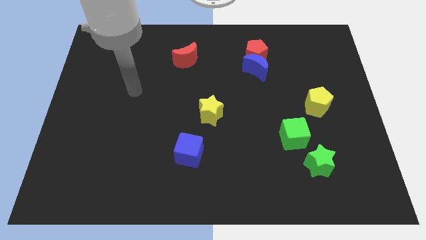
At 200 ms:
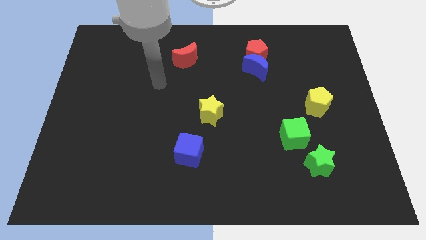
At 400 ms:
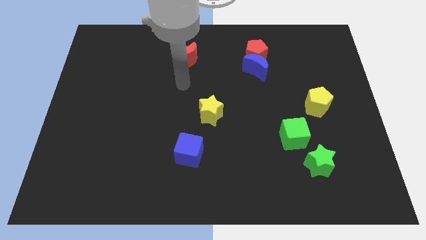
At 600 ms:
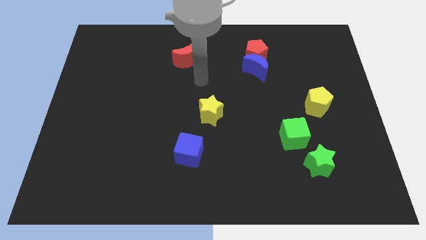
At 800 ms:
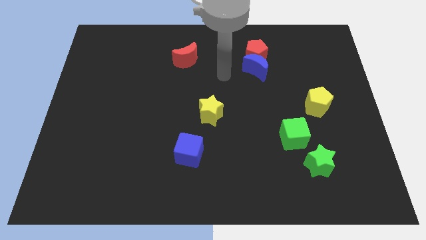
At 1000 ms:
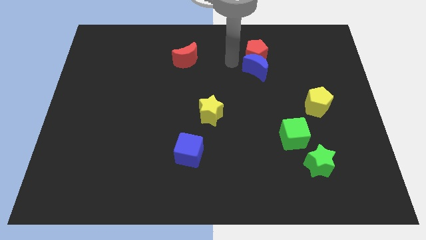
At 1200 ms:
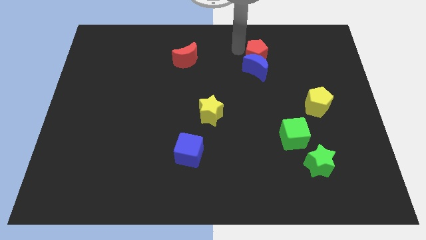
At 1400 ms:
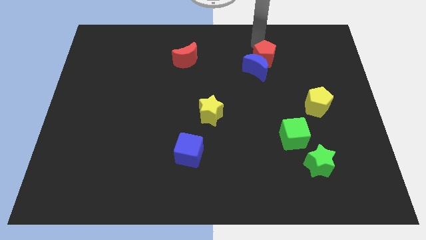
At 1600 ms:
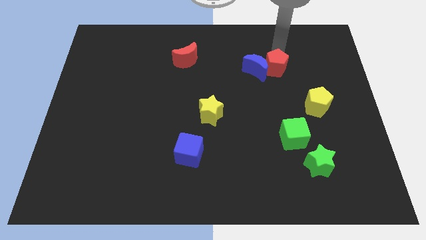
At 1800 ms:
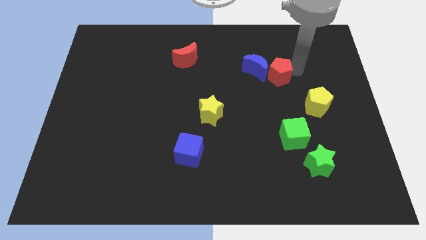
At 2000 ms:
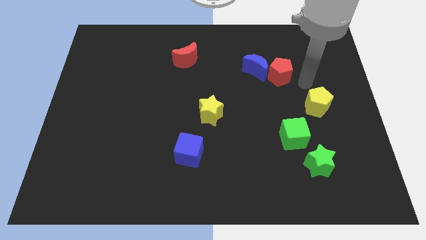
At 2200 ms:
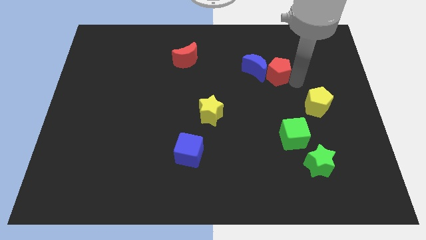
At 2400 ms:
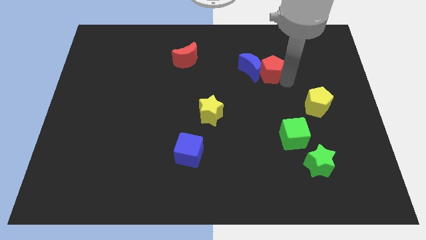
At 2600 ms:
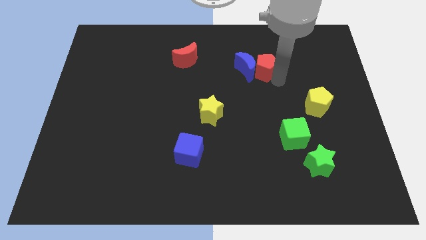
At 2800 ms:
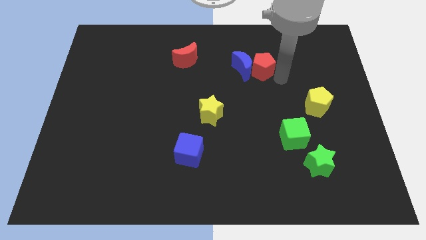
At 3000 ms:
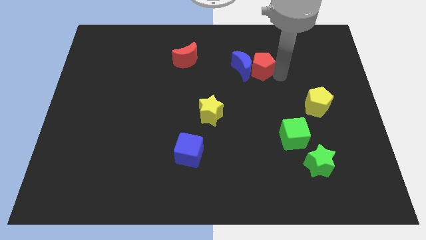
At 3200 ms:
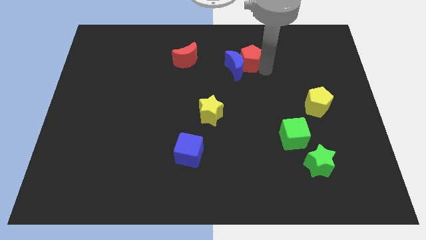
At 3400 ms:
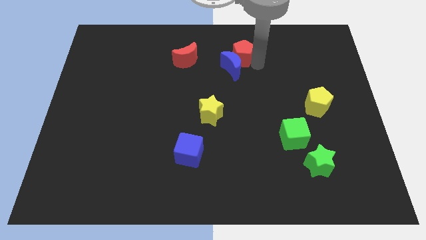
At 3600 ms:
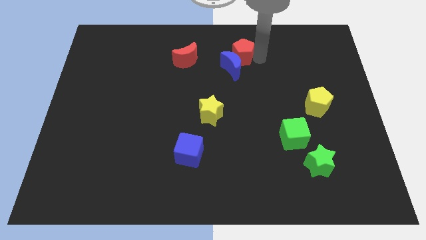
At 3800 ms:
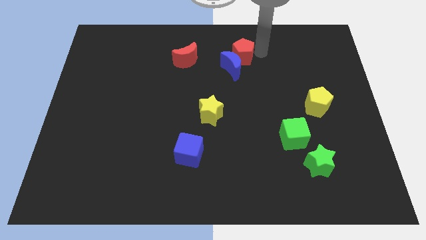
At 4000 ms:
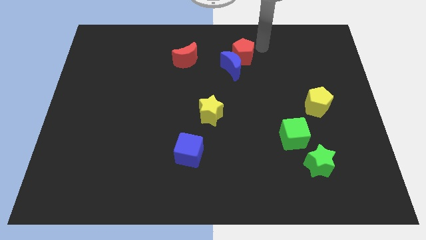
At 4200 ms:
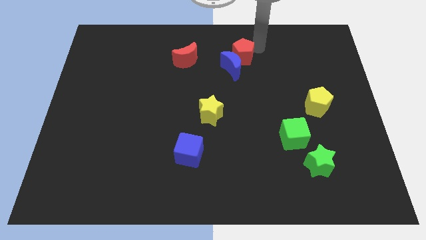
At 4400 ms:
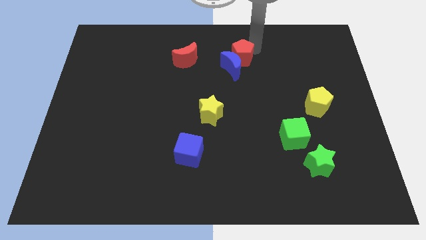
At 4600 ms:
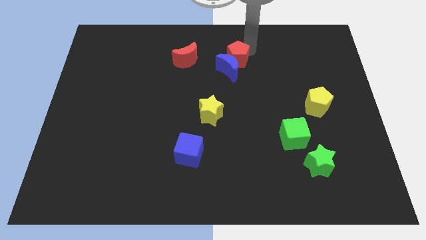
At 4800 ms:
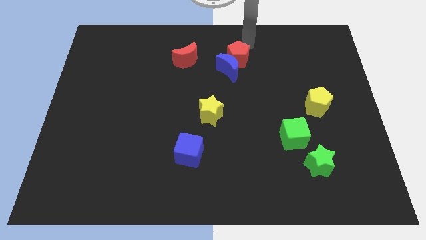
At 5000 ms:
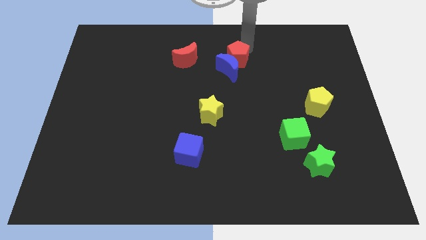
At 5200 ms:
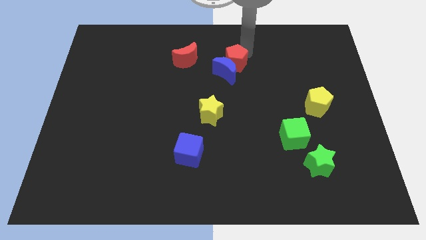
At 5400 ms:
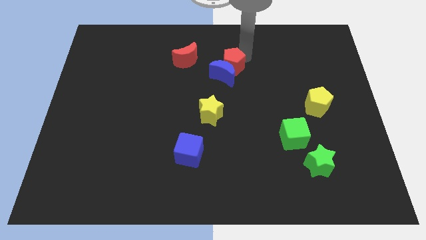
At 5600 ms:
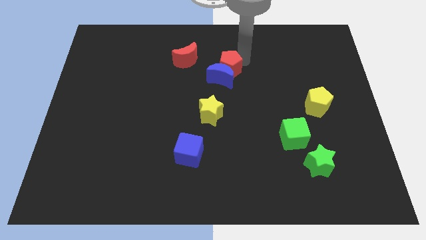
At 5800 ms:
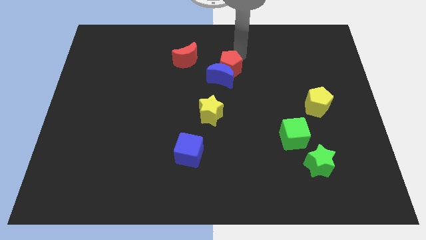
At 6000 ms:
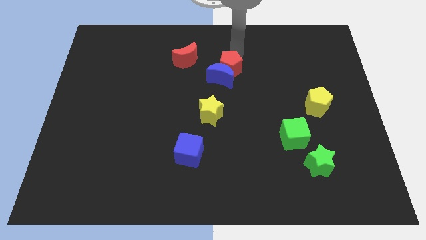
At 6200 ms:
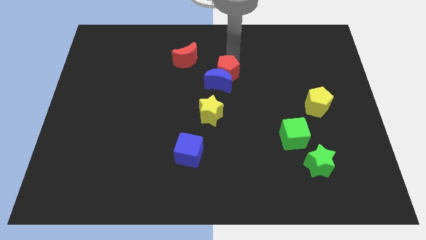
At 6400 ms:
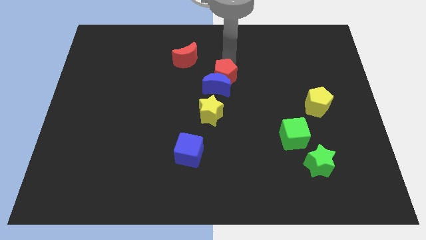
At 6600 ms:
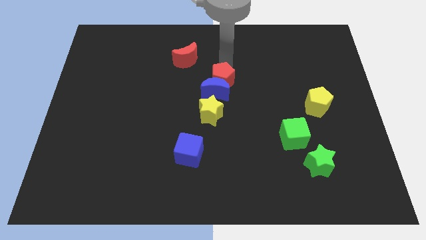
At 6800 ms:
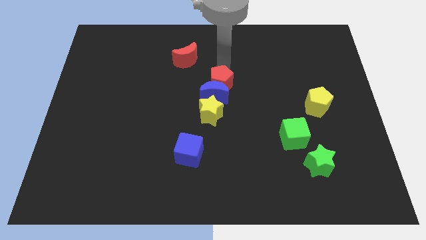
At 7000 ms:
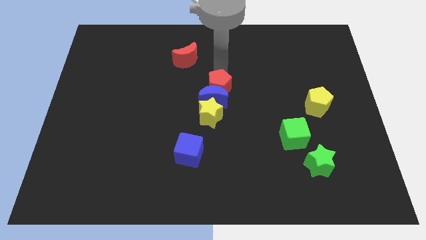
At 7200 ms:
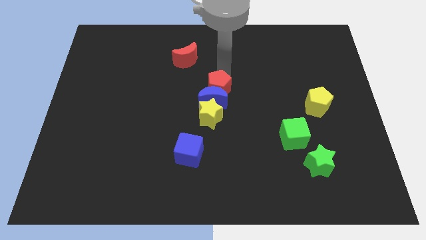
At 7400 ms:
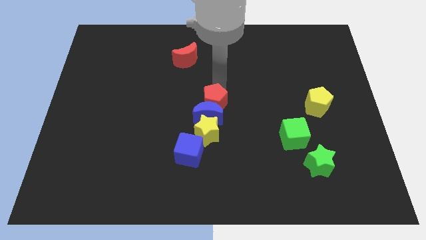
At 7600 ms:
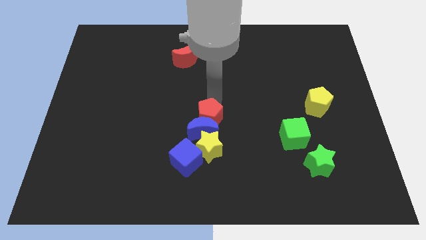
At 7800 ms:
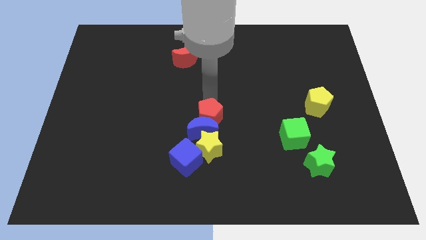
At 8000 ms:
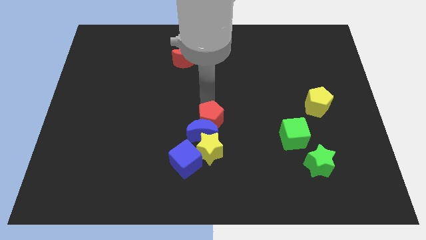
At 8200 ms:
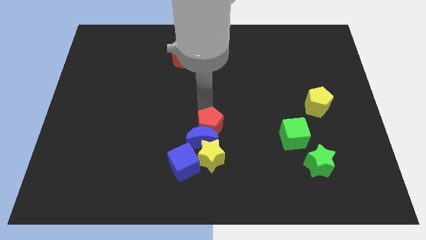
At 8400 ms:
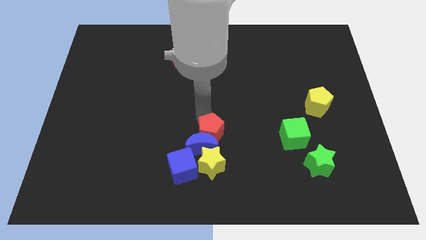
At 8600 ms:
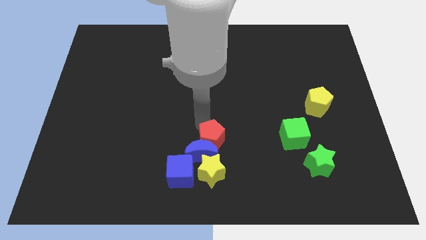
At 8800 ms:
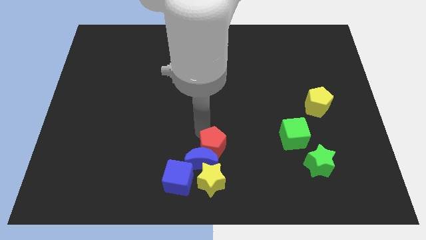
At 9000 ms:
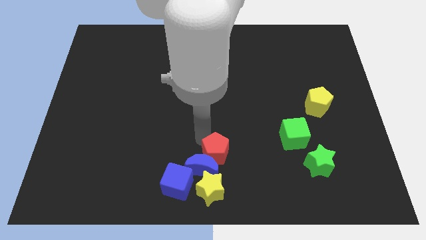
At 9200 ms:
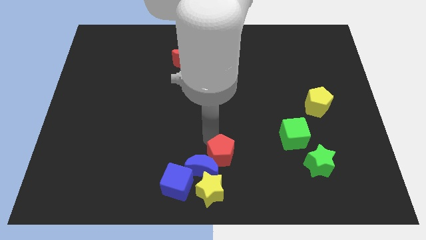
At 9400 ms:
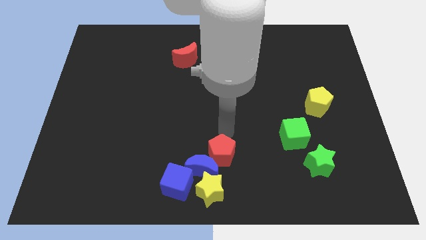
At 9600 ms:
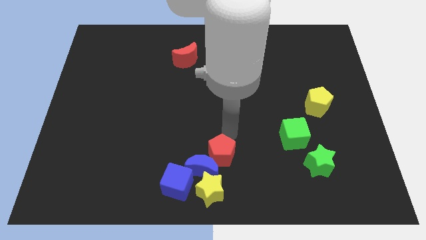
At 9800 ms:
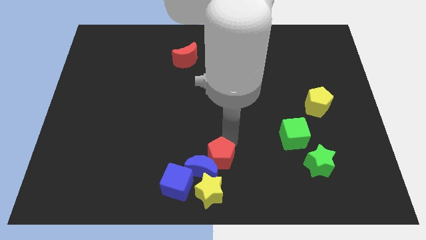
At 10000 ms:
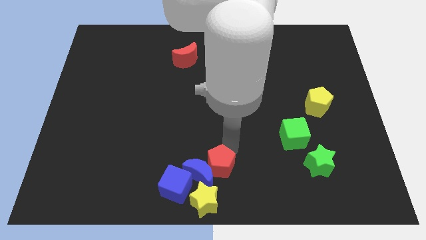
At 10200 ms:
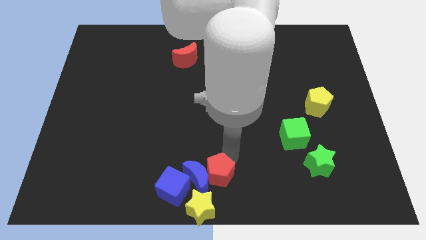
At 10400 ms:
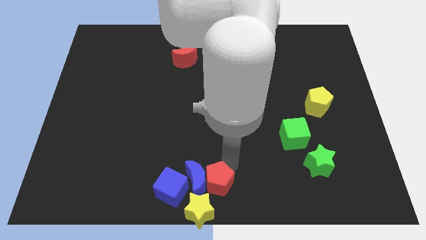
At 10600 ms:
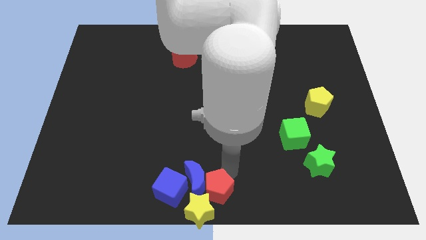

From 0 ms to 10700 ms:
push the red pentagon next to the yellow star
